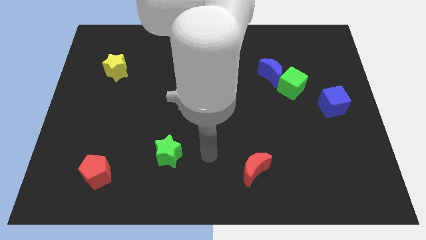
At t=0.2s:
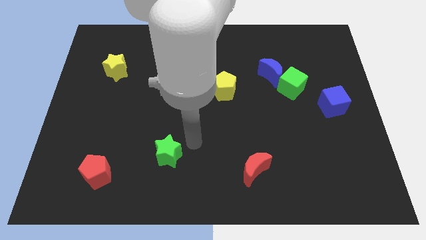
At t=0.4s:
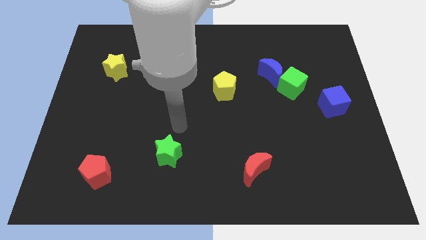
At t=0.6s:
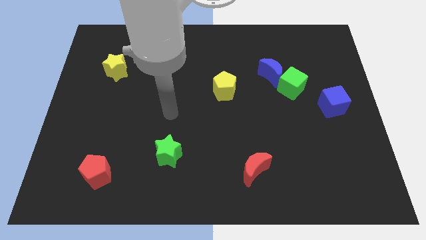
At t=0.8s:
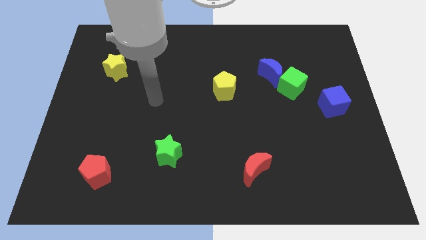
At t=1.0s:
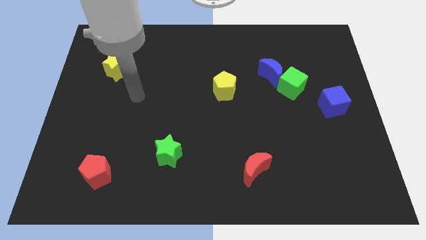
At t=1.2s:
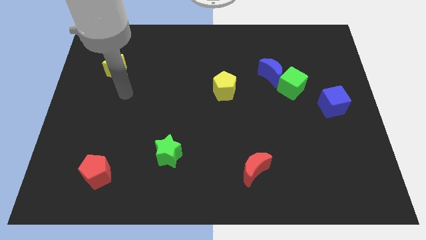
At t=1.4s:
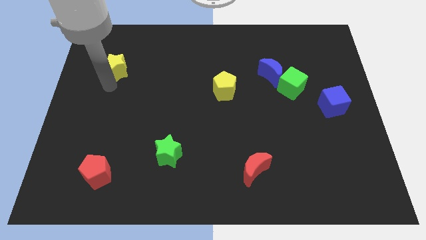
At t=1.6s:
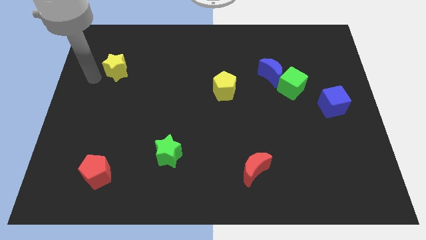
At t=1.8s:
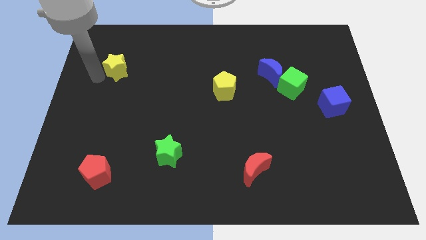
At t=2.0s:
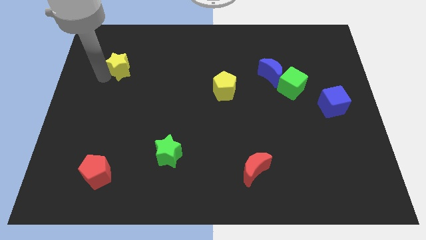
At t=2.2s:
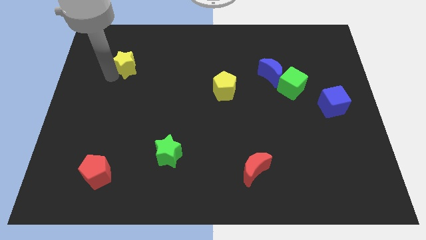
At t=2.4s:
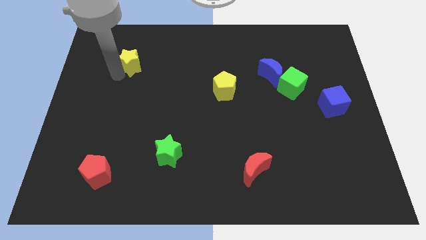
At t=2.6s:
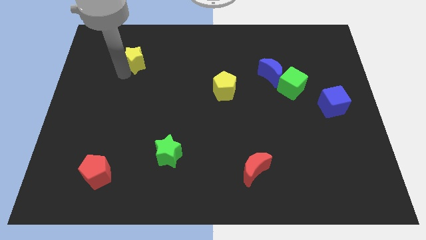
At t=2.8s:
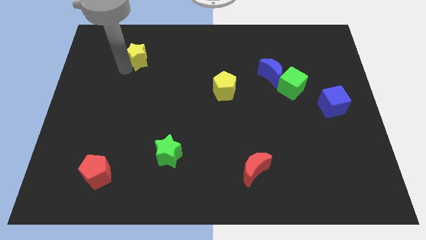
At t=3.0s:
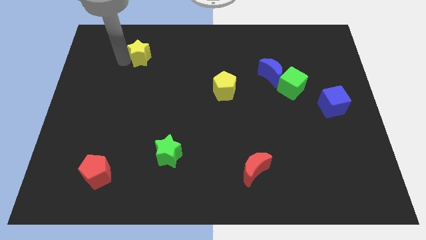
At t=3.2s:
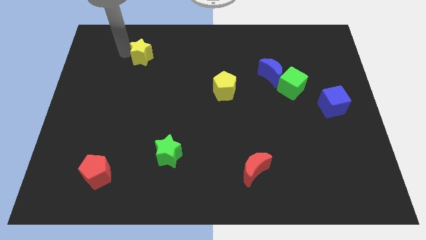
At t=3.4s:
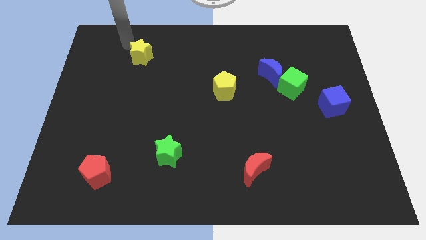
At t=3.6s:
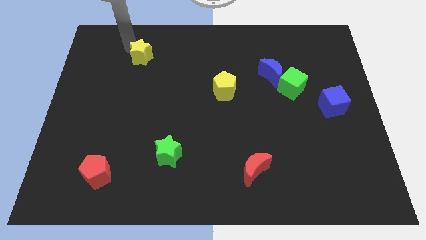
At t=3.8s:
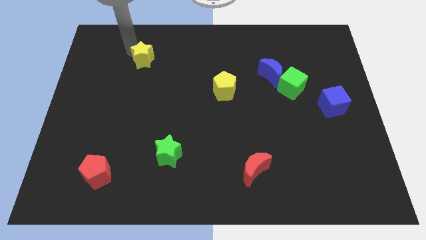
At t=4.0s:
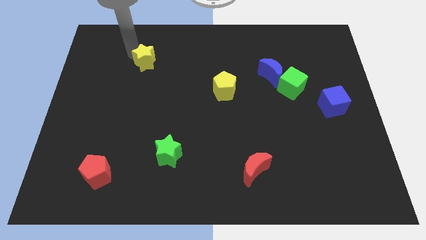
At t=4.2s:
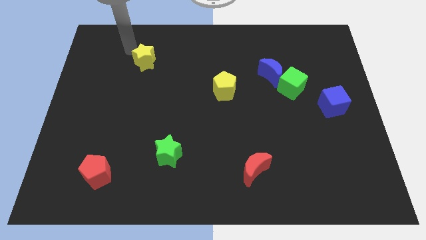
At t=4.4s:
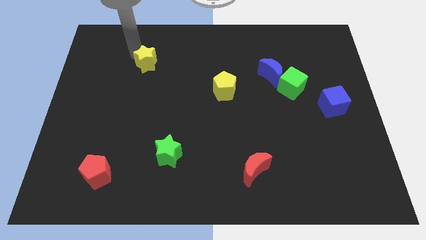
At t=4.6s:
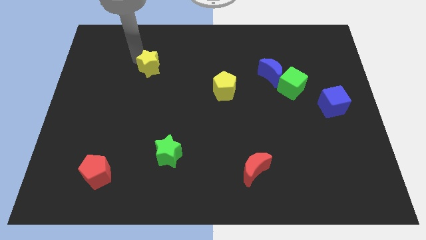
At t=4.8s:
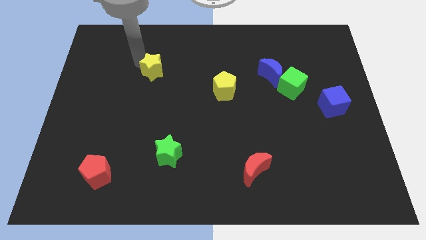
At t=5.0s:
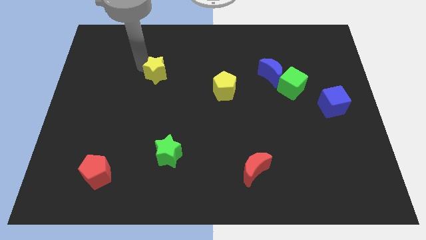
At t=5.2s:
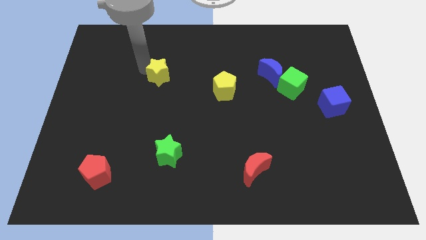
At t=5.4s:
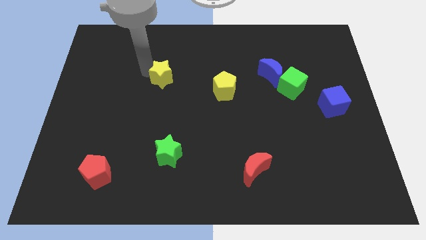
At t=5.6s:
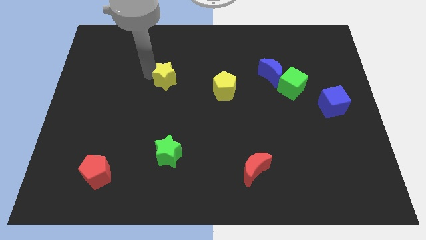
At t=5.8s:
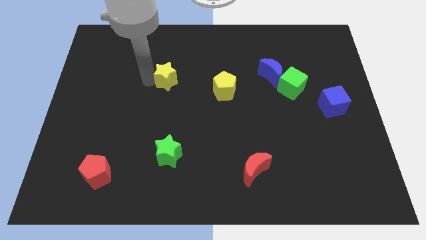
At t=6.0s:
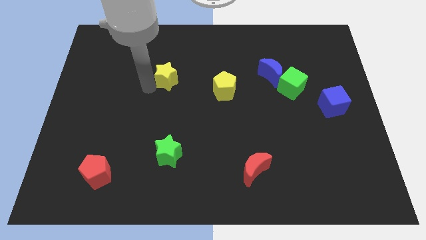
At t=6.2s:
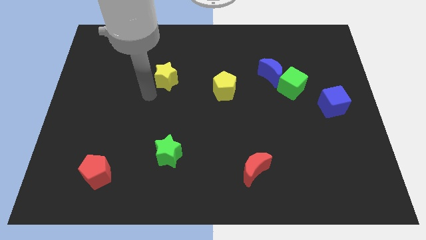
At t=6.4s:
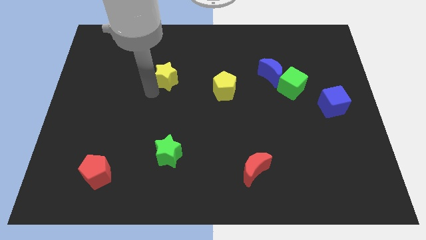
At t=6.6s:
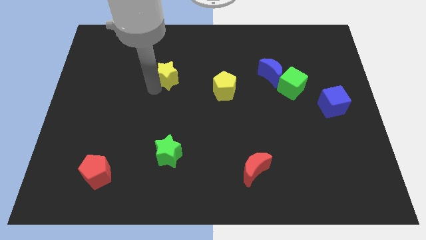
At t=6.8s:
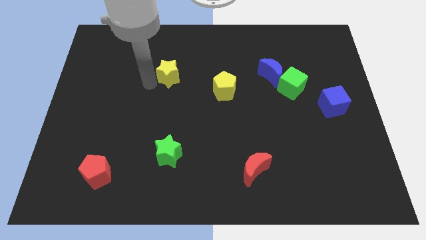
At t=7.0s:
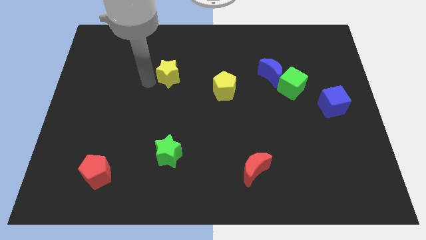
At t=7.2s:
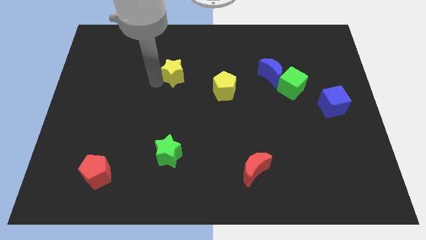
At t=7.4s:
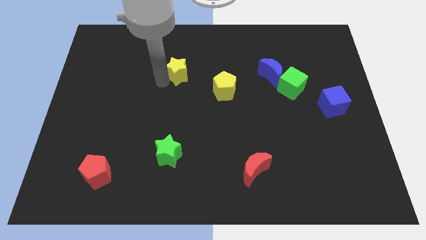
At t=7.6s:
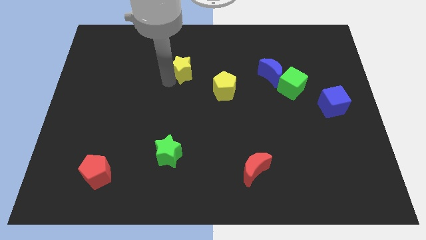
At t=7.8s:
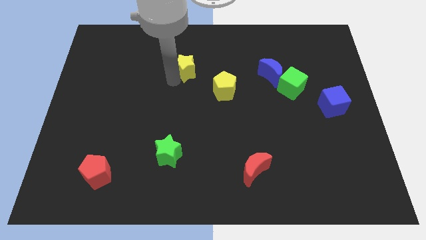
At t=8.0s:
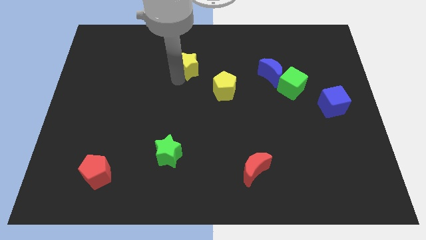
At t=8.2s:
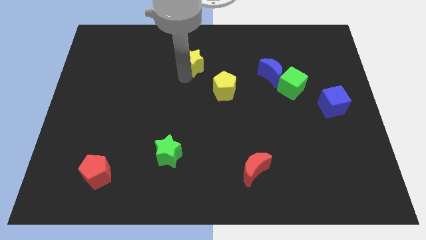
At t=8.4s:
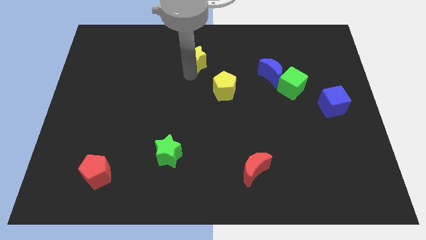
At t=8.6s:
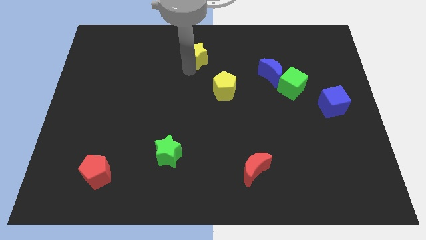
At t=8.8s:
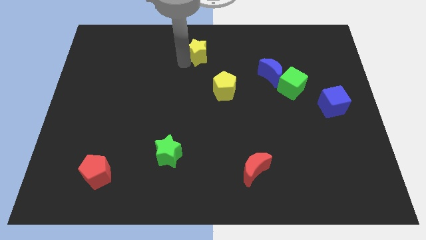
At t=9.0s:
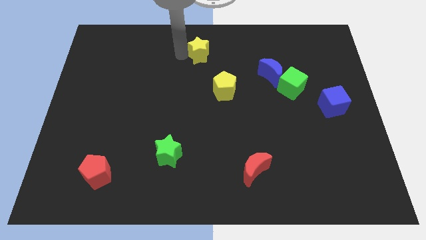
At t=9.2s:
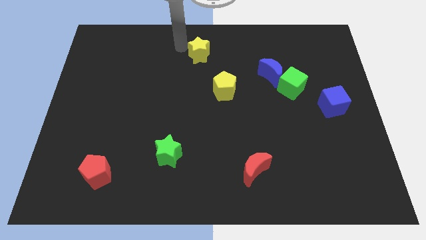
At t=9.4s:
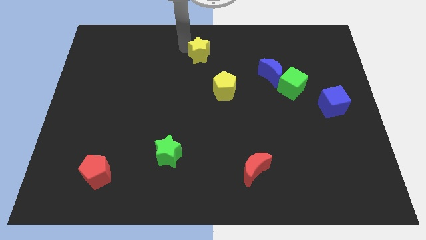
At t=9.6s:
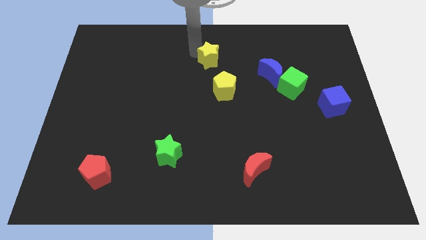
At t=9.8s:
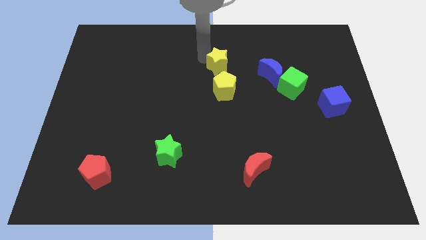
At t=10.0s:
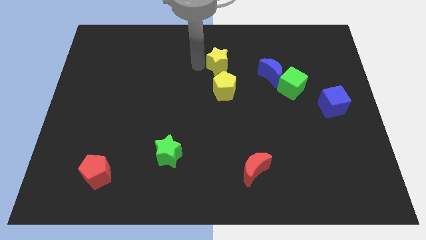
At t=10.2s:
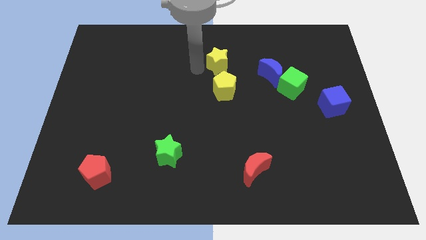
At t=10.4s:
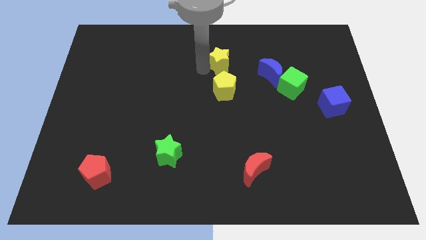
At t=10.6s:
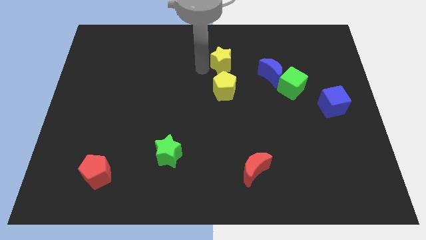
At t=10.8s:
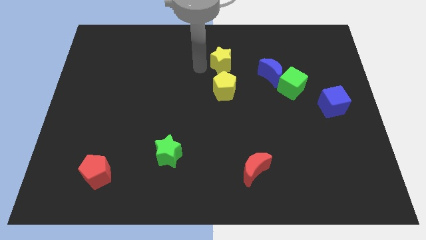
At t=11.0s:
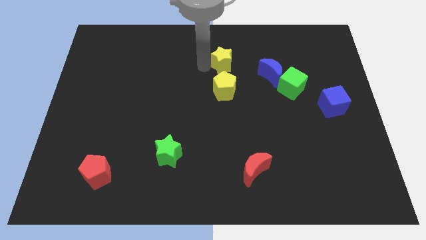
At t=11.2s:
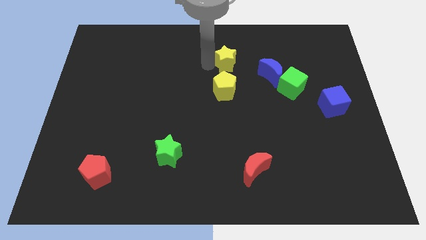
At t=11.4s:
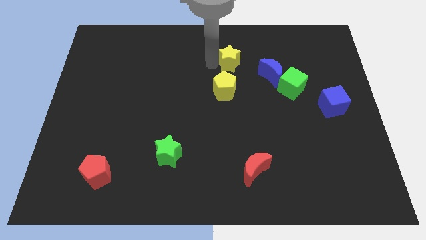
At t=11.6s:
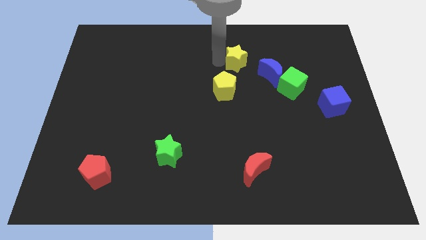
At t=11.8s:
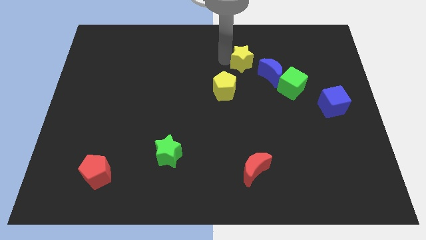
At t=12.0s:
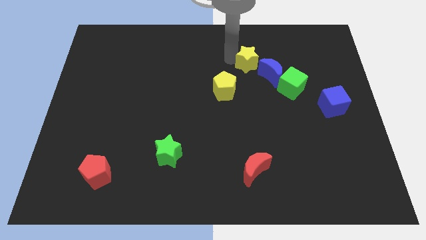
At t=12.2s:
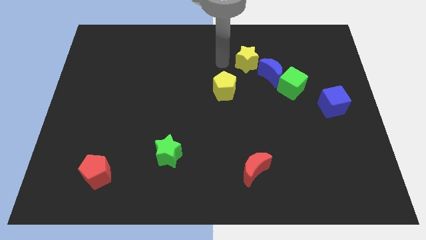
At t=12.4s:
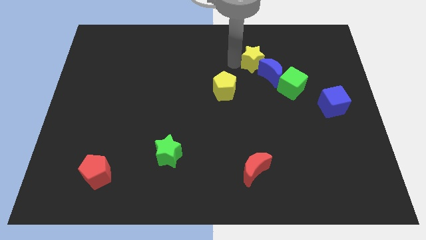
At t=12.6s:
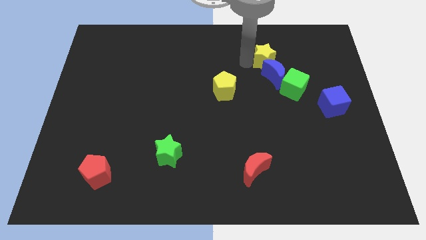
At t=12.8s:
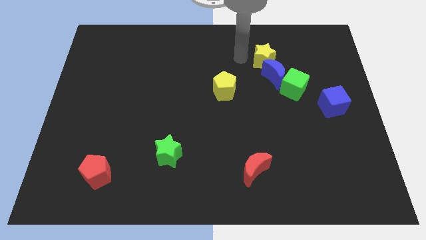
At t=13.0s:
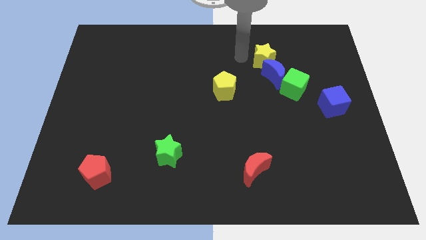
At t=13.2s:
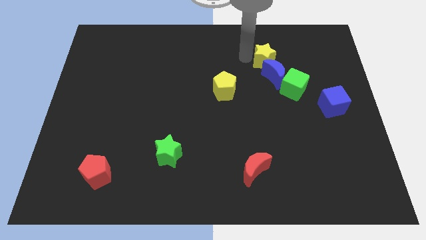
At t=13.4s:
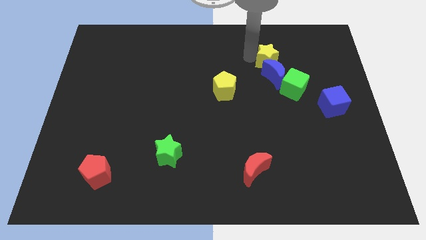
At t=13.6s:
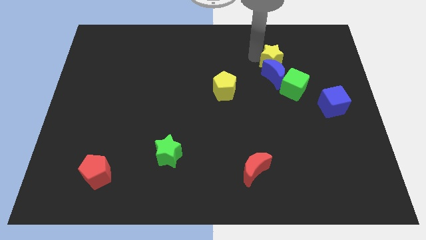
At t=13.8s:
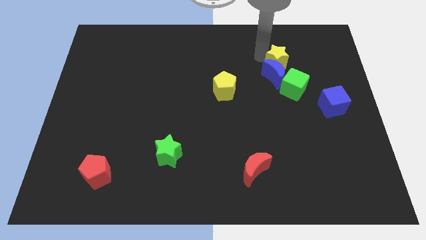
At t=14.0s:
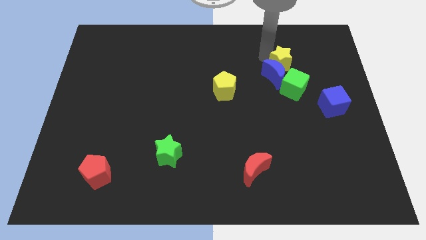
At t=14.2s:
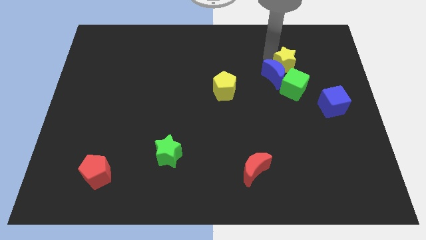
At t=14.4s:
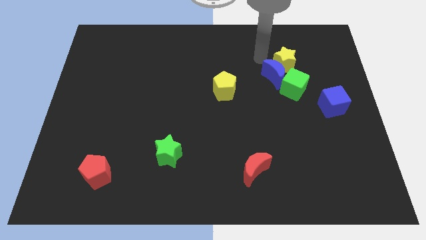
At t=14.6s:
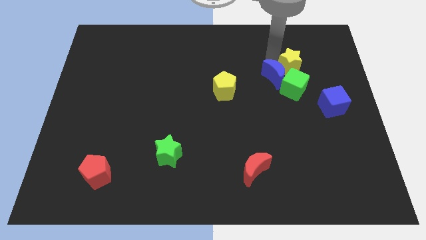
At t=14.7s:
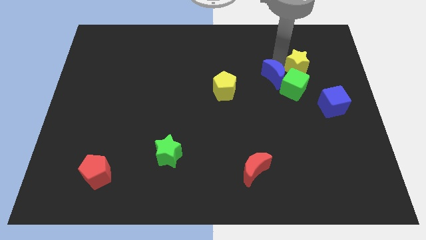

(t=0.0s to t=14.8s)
slide the yellow star to the top right side of the green cube

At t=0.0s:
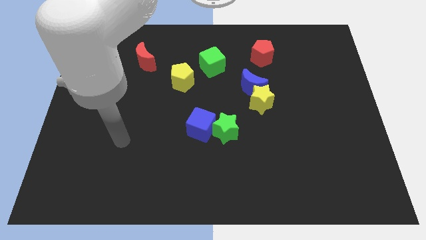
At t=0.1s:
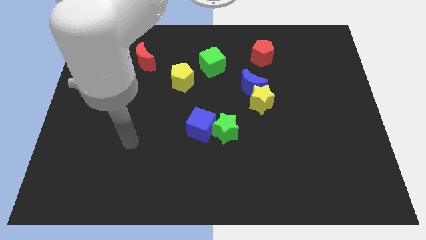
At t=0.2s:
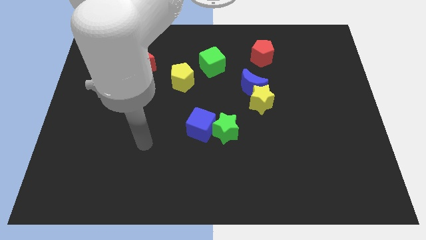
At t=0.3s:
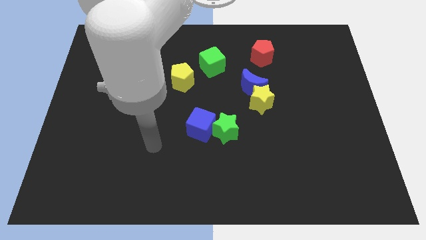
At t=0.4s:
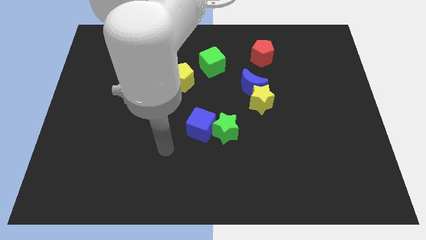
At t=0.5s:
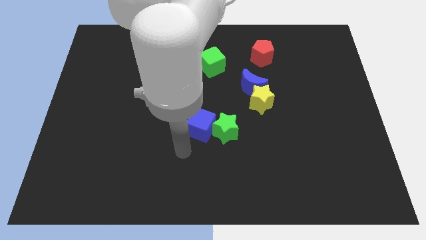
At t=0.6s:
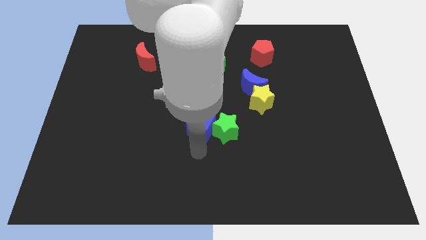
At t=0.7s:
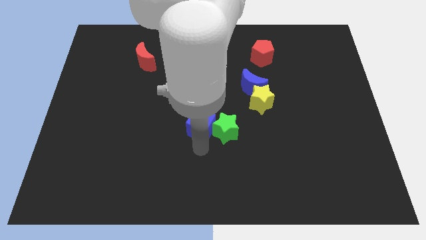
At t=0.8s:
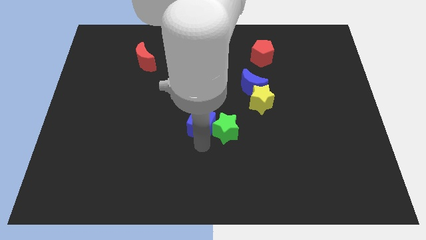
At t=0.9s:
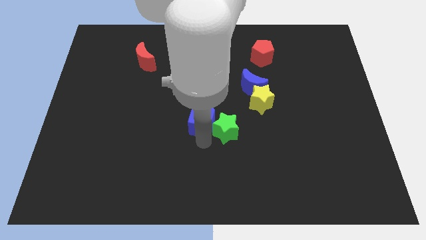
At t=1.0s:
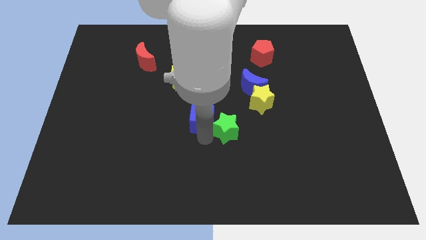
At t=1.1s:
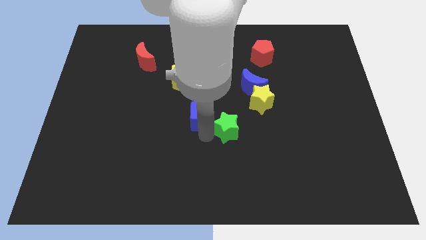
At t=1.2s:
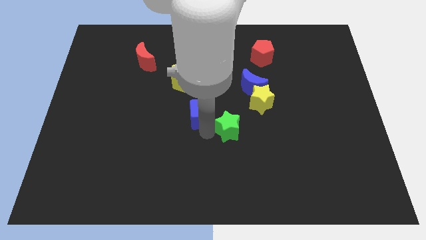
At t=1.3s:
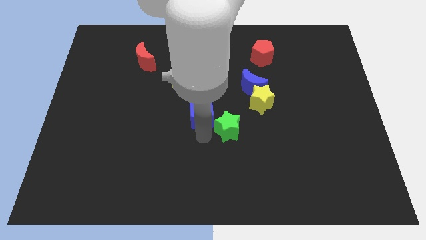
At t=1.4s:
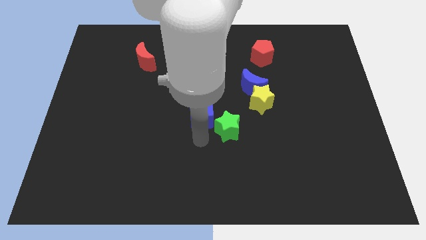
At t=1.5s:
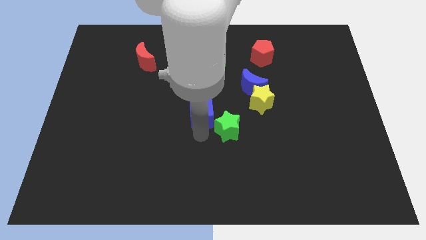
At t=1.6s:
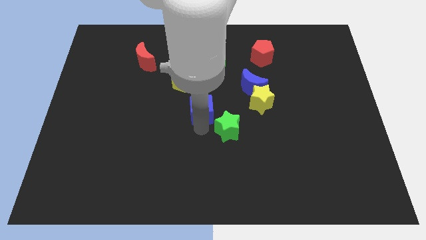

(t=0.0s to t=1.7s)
slide the blue cube to the bottom right side of the yellow pentagon
